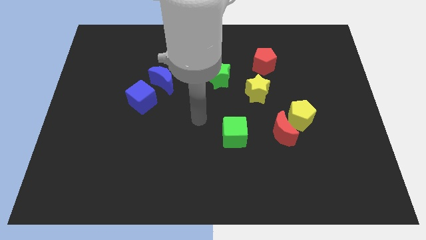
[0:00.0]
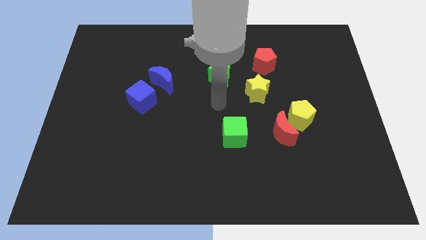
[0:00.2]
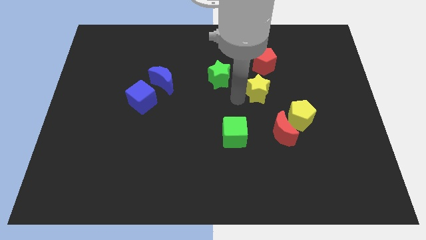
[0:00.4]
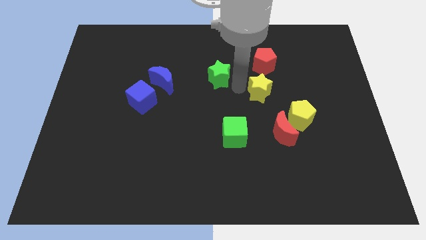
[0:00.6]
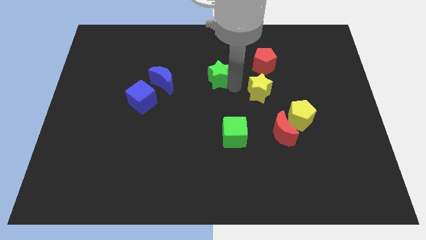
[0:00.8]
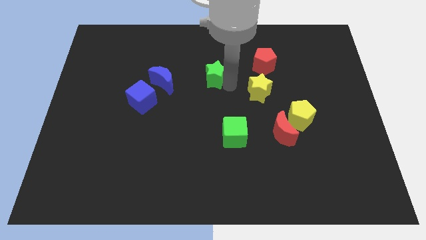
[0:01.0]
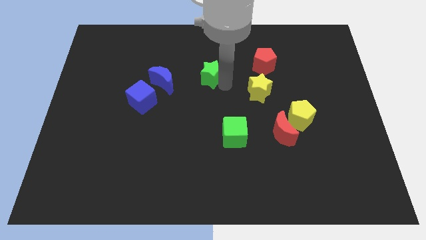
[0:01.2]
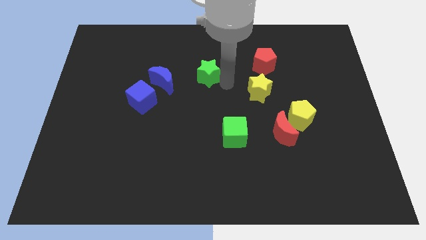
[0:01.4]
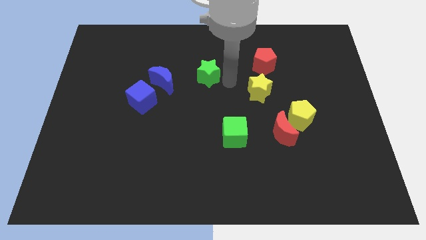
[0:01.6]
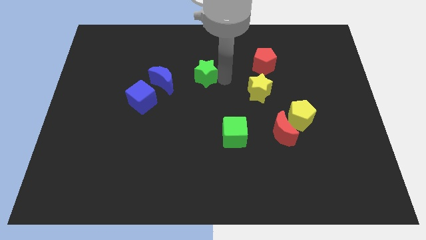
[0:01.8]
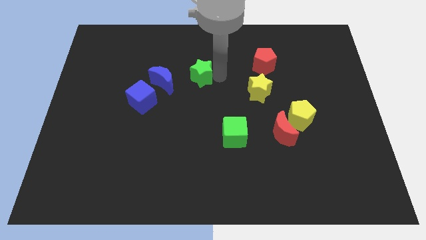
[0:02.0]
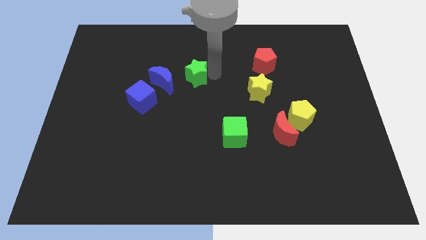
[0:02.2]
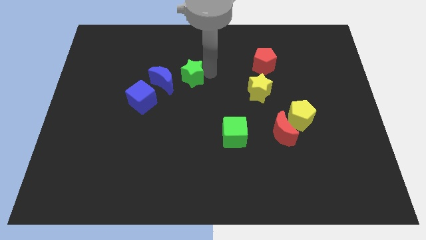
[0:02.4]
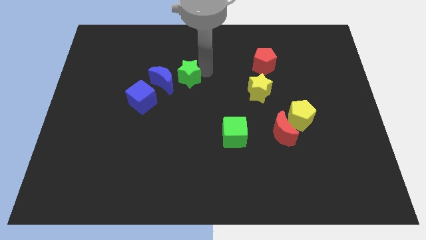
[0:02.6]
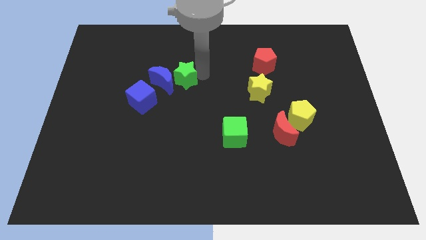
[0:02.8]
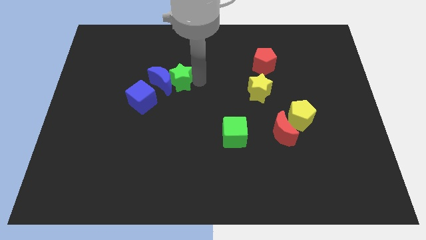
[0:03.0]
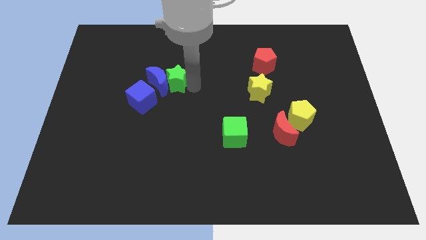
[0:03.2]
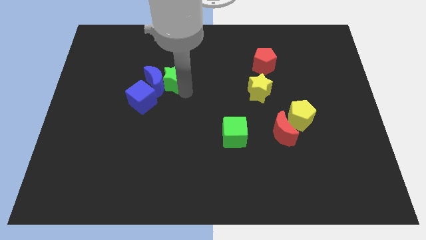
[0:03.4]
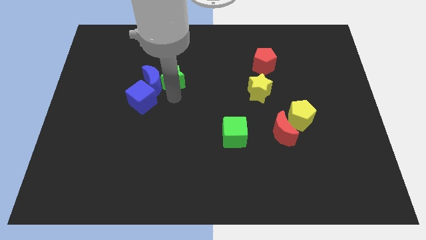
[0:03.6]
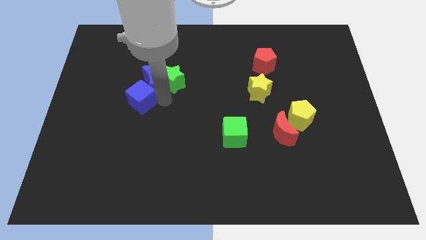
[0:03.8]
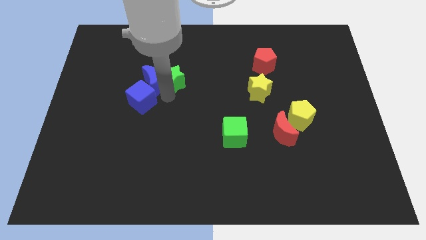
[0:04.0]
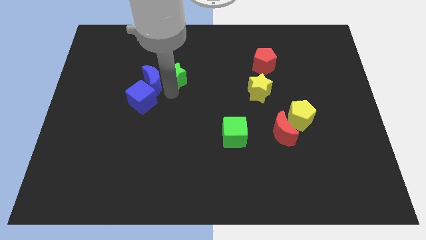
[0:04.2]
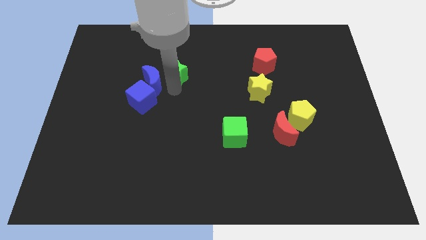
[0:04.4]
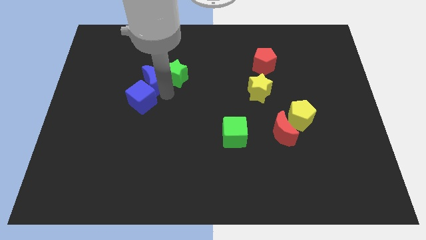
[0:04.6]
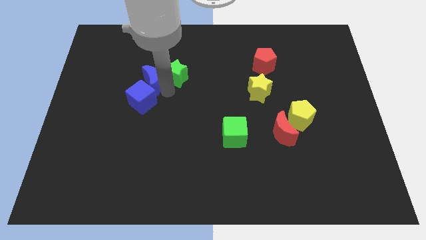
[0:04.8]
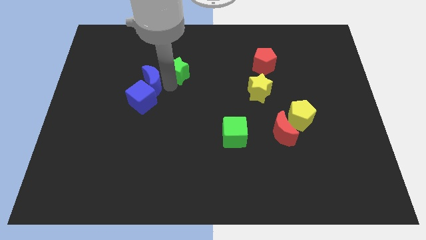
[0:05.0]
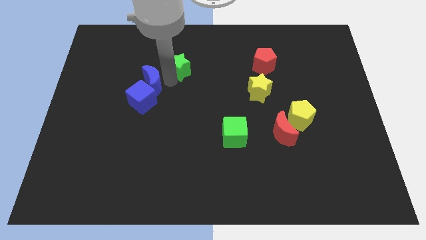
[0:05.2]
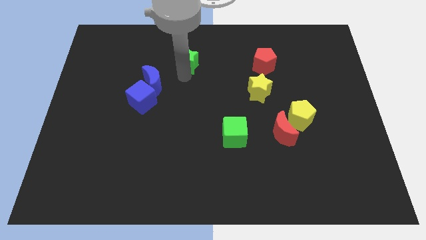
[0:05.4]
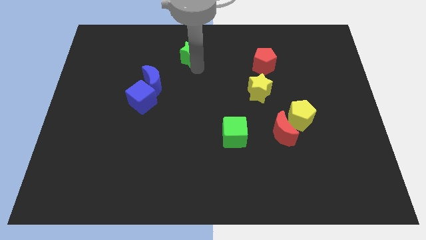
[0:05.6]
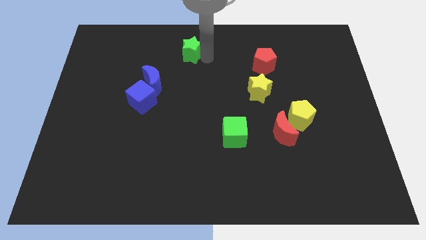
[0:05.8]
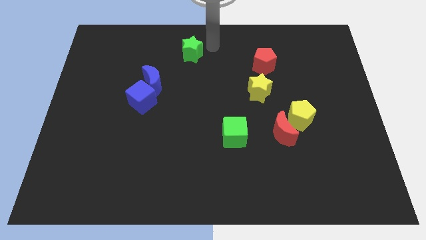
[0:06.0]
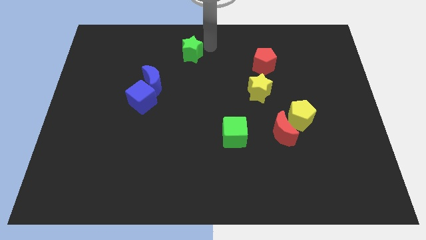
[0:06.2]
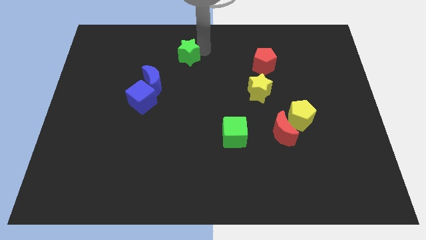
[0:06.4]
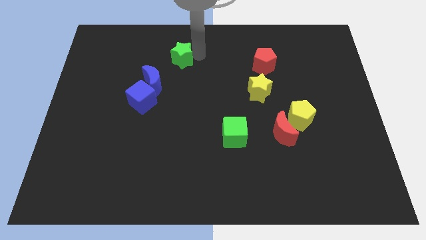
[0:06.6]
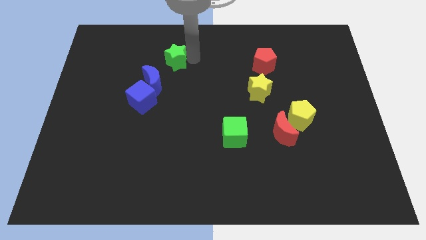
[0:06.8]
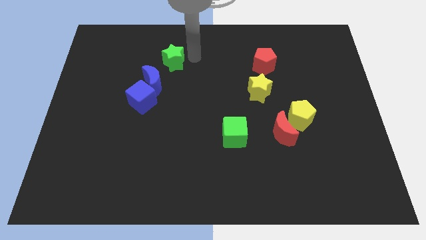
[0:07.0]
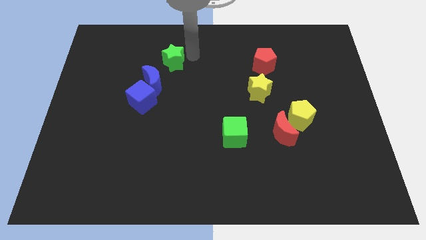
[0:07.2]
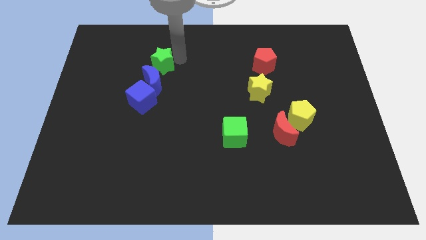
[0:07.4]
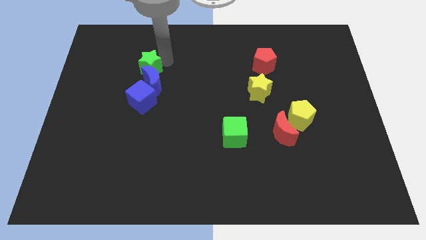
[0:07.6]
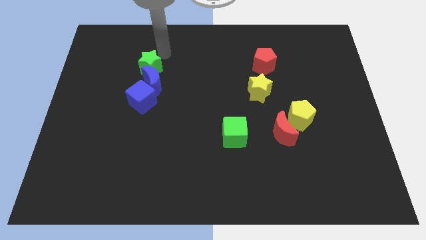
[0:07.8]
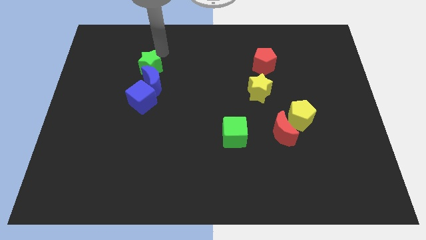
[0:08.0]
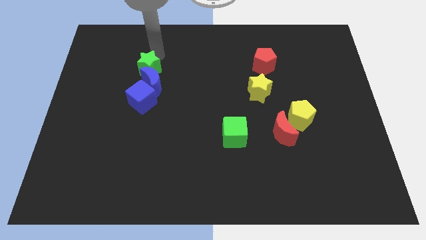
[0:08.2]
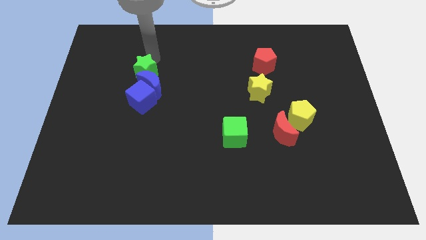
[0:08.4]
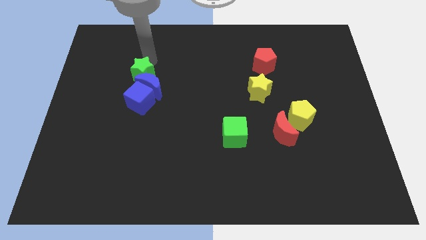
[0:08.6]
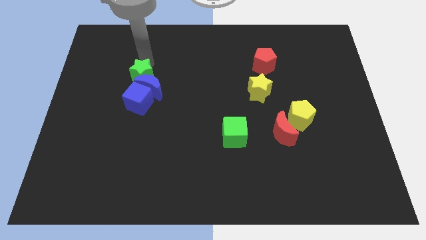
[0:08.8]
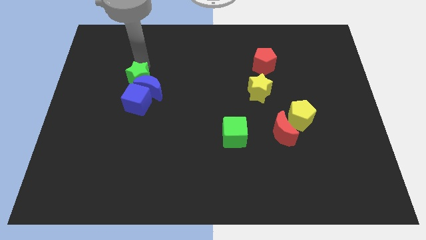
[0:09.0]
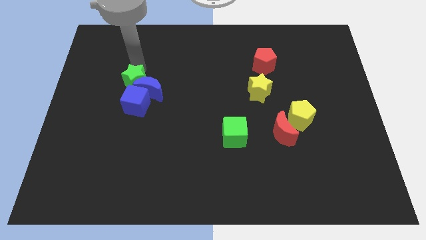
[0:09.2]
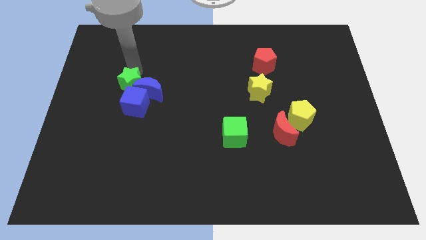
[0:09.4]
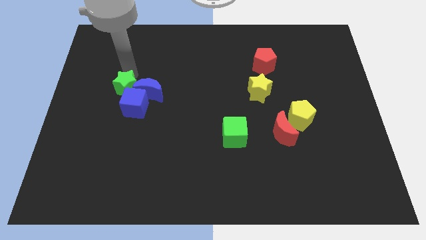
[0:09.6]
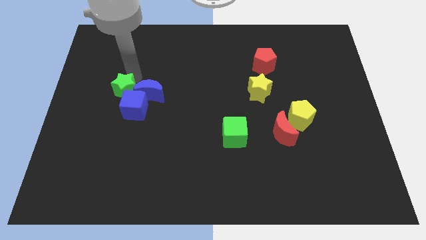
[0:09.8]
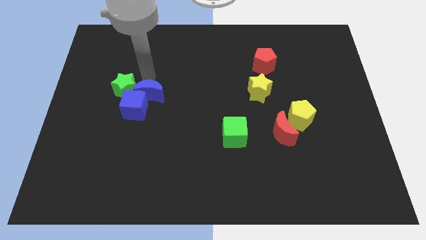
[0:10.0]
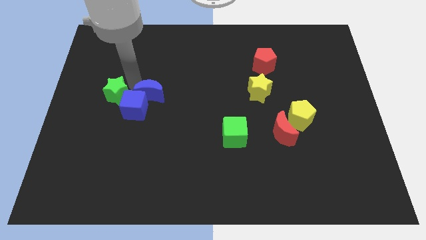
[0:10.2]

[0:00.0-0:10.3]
move the green star to the left side of the blue cube

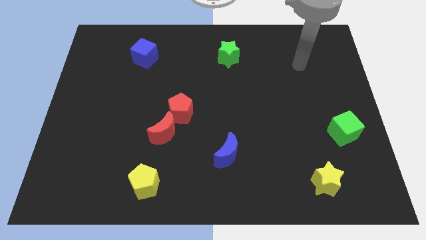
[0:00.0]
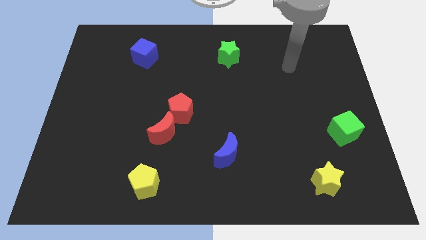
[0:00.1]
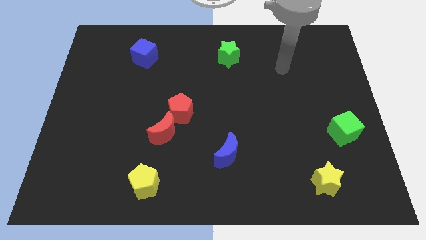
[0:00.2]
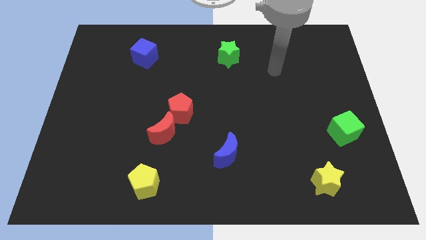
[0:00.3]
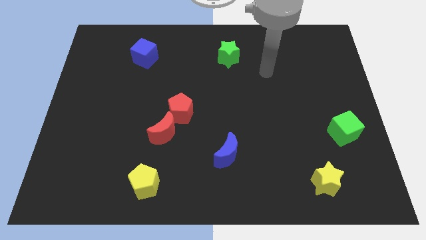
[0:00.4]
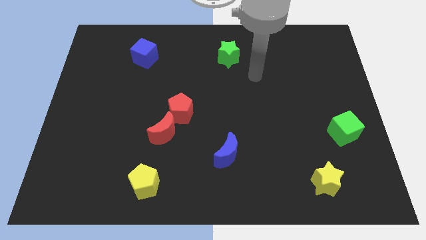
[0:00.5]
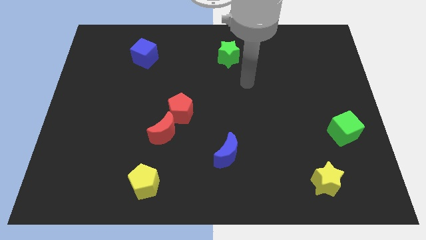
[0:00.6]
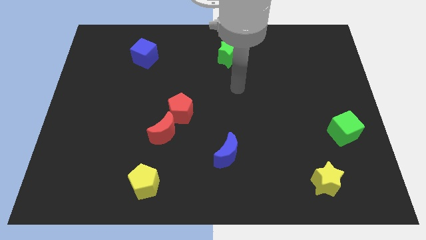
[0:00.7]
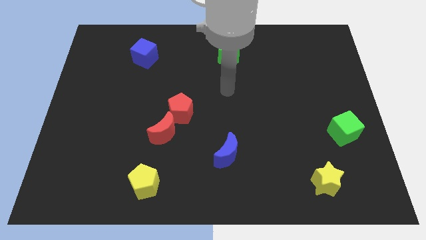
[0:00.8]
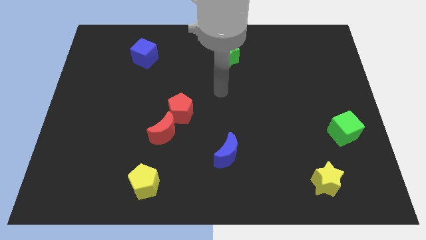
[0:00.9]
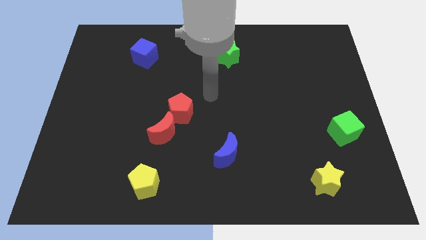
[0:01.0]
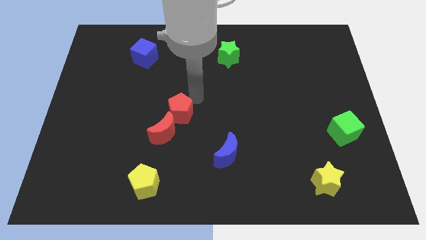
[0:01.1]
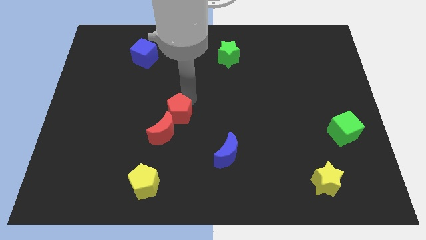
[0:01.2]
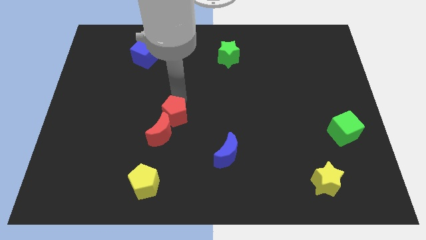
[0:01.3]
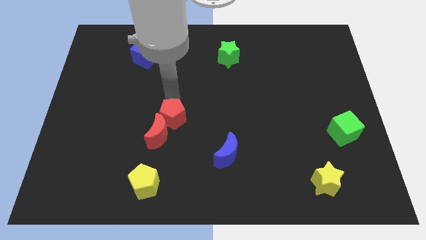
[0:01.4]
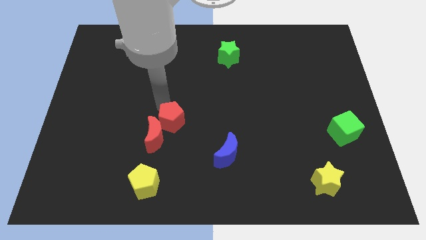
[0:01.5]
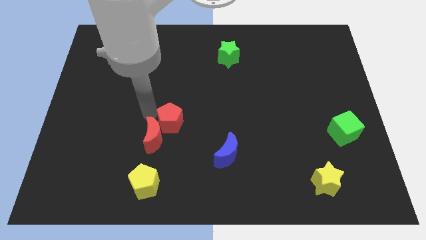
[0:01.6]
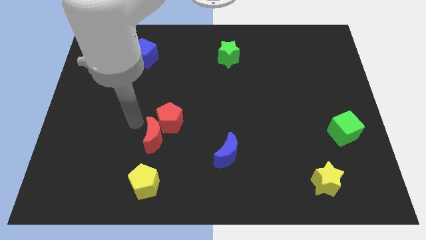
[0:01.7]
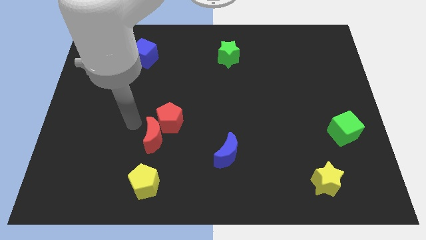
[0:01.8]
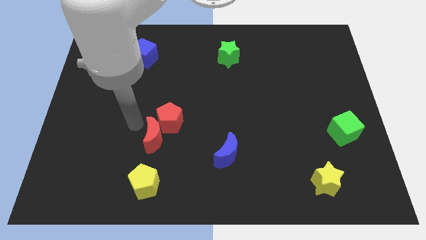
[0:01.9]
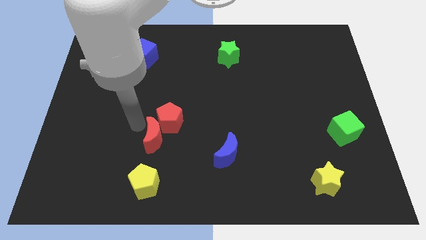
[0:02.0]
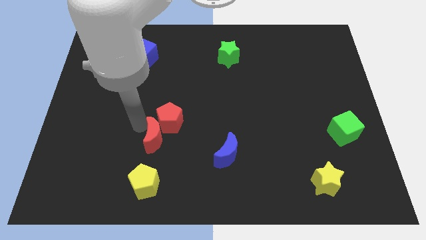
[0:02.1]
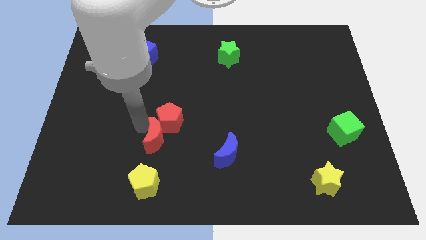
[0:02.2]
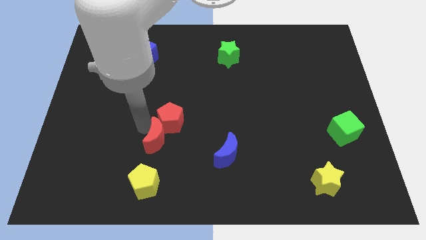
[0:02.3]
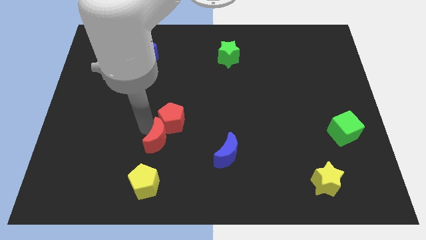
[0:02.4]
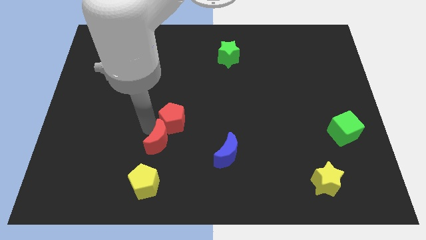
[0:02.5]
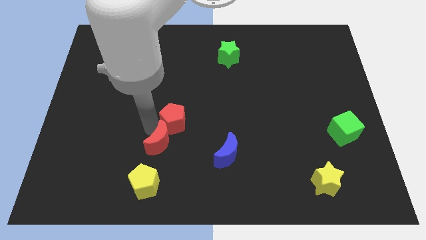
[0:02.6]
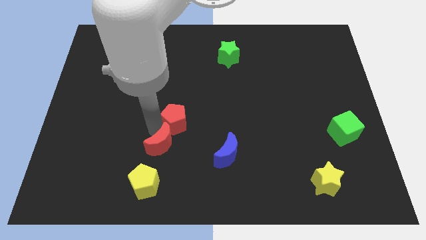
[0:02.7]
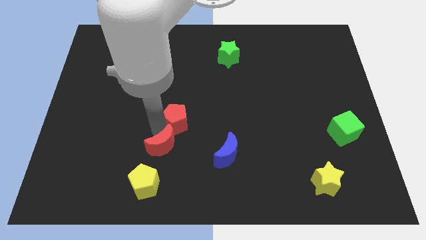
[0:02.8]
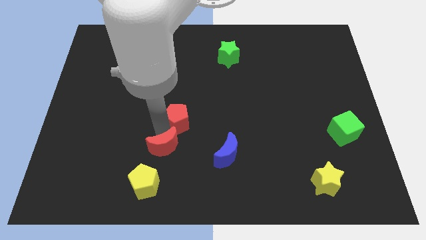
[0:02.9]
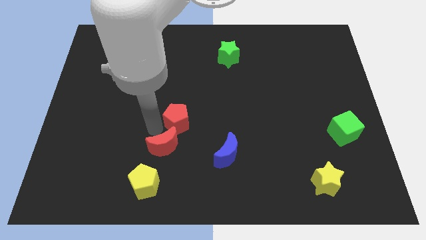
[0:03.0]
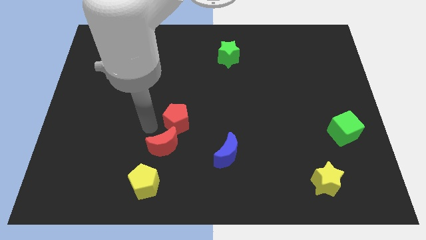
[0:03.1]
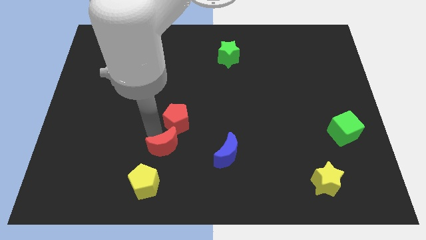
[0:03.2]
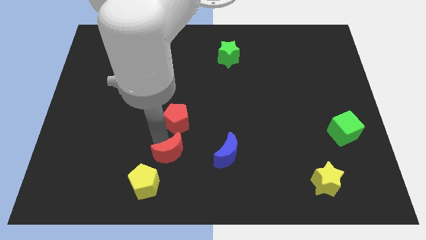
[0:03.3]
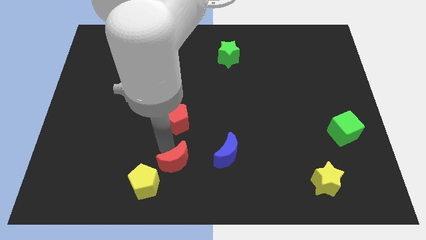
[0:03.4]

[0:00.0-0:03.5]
move the red moon just right of the yellow pentagon
